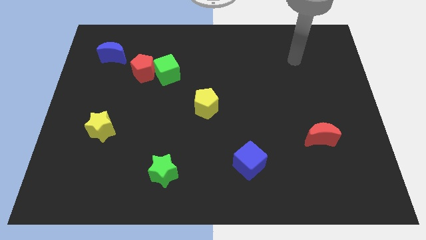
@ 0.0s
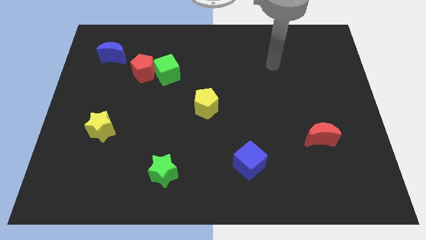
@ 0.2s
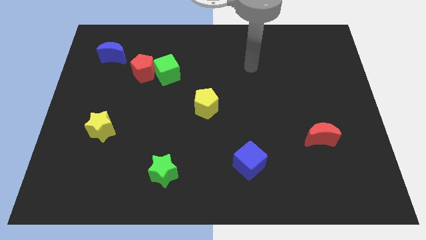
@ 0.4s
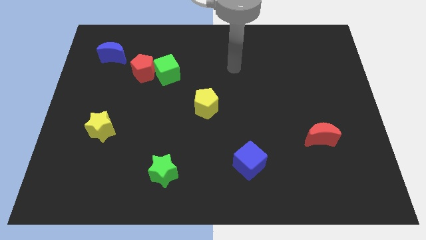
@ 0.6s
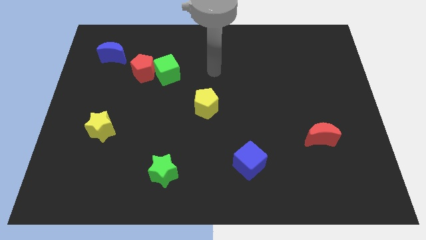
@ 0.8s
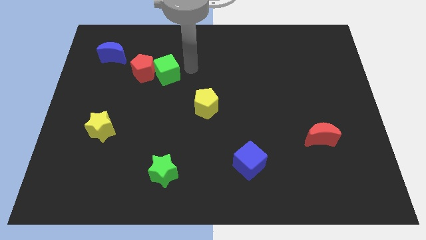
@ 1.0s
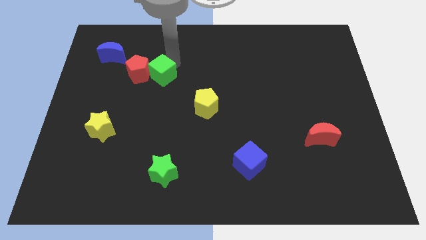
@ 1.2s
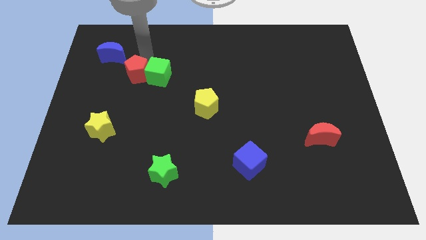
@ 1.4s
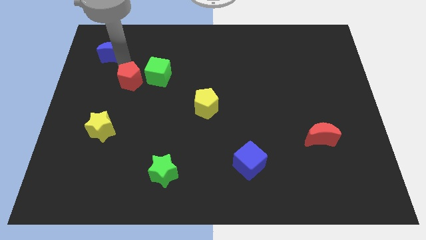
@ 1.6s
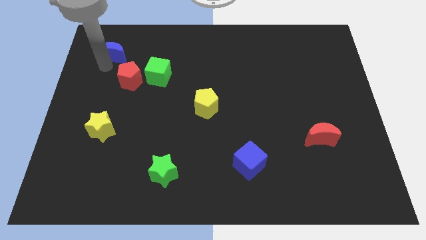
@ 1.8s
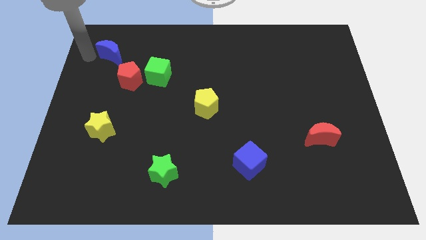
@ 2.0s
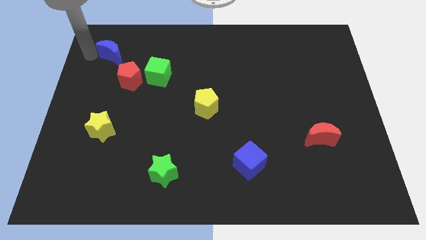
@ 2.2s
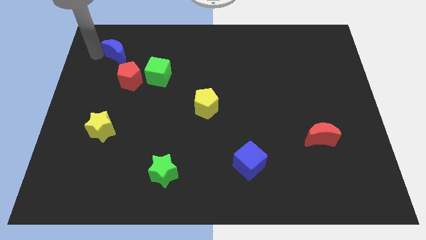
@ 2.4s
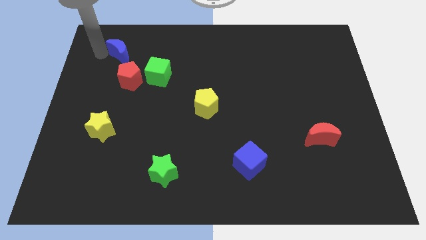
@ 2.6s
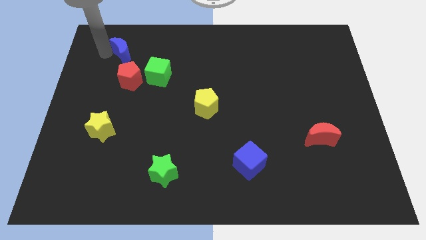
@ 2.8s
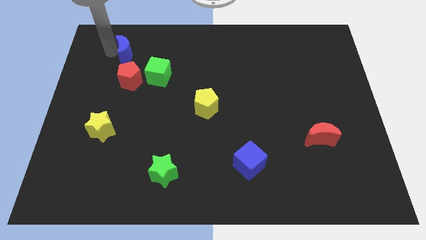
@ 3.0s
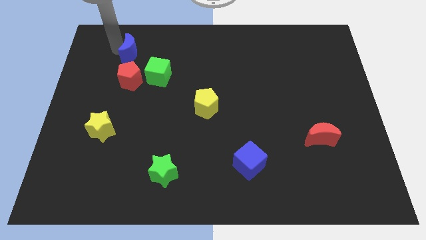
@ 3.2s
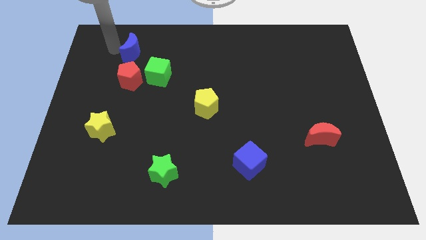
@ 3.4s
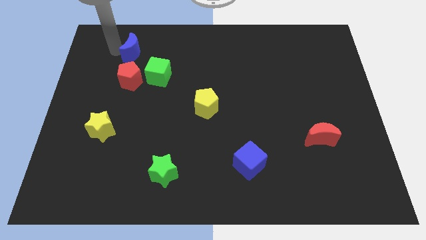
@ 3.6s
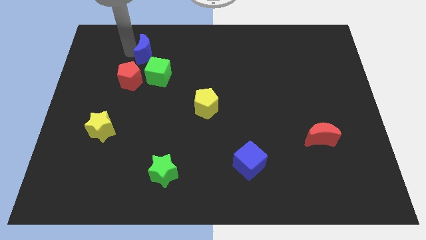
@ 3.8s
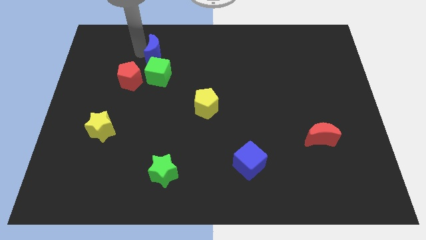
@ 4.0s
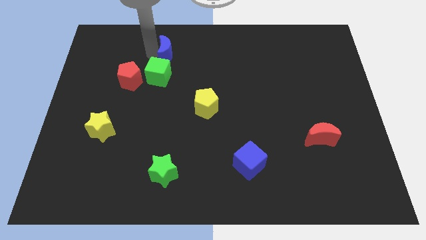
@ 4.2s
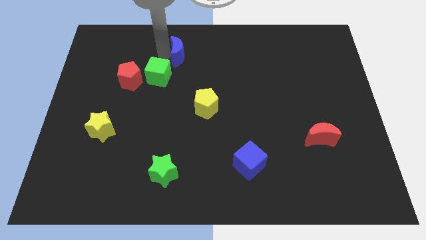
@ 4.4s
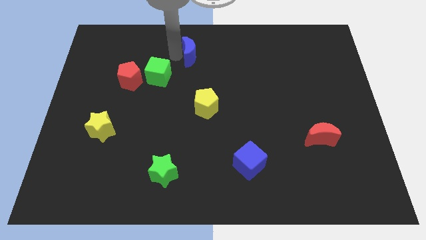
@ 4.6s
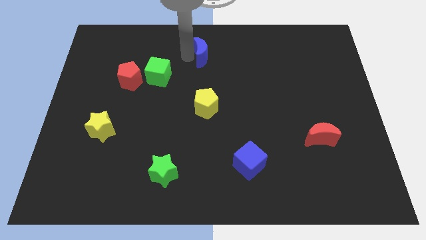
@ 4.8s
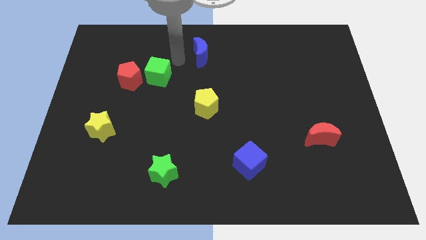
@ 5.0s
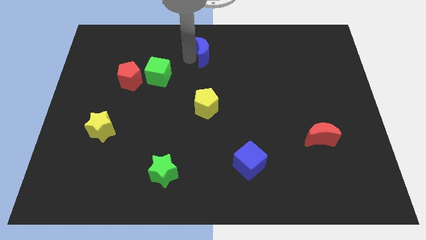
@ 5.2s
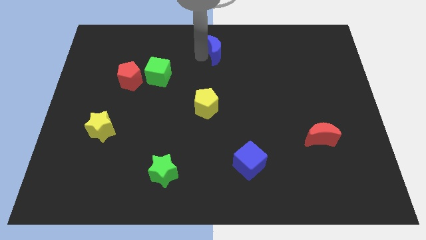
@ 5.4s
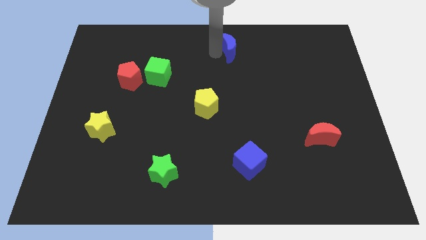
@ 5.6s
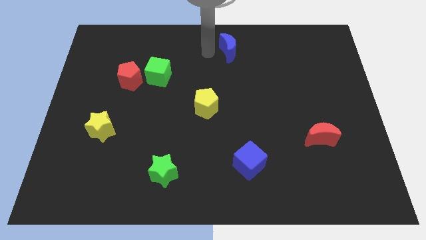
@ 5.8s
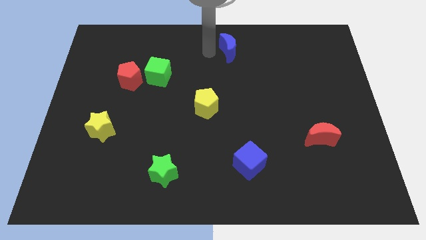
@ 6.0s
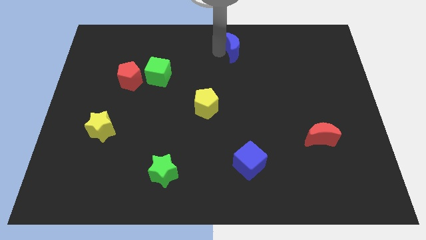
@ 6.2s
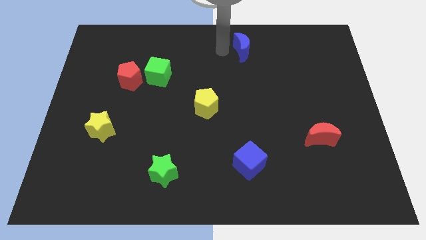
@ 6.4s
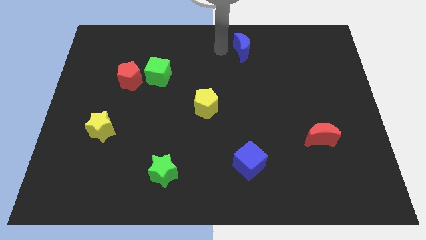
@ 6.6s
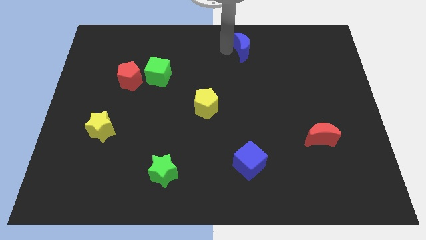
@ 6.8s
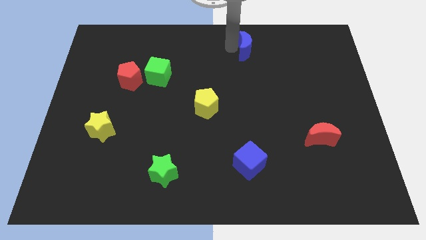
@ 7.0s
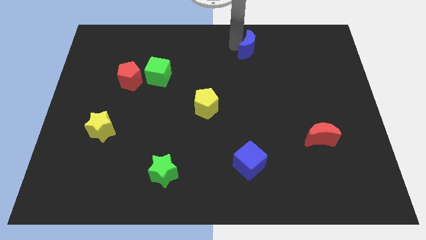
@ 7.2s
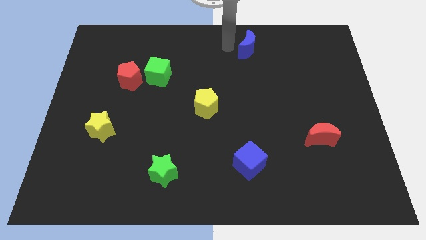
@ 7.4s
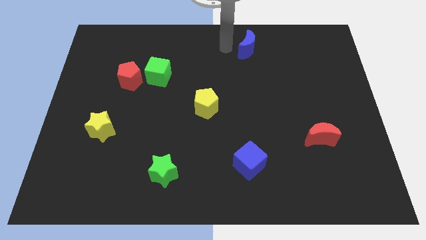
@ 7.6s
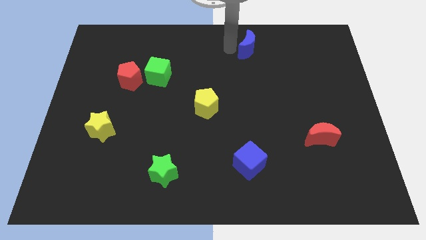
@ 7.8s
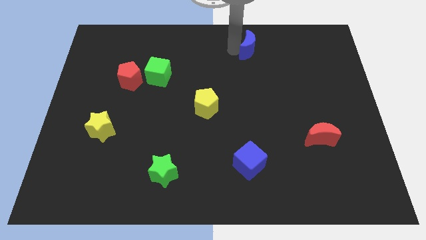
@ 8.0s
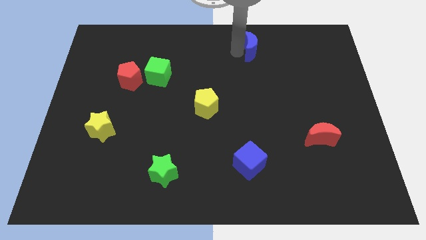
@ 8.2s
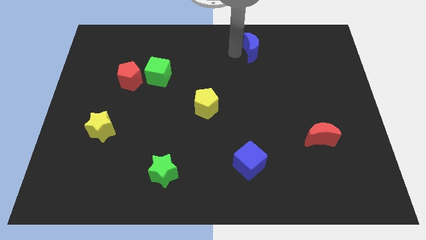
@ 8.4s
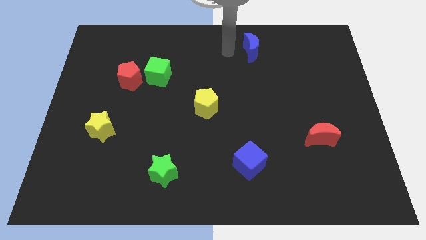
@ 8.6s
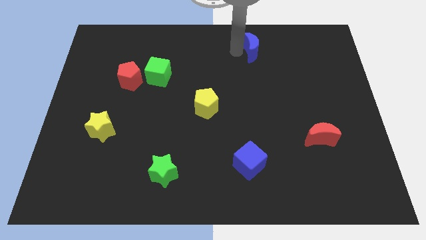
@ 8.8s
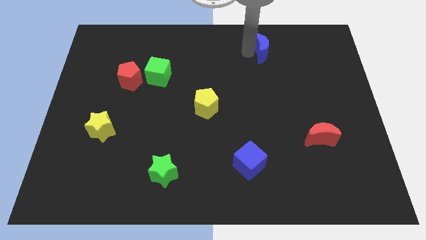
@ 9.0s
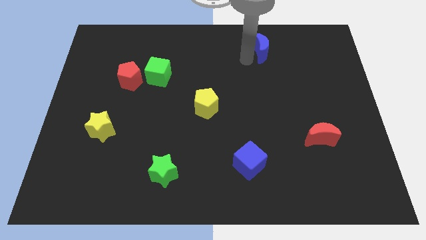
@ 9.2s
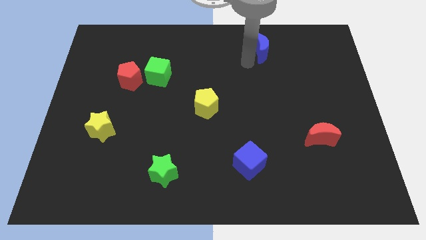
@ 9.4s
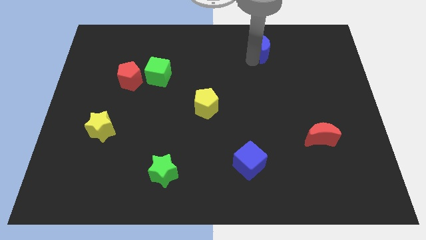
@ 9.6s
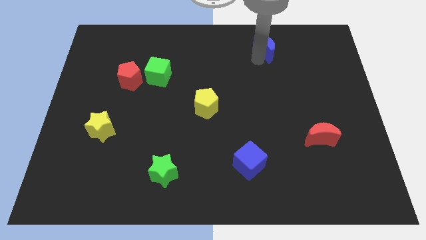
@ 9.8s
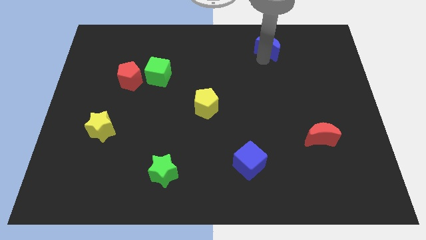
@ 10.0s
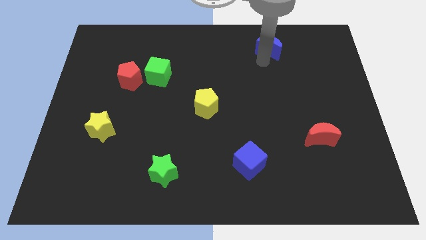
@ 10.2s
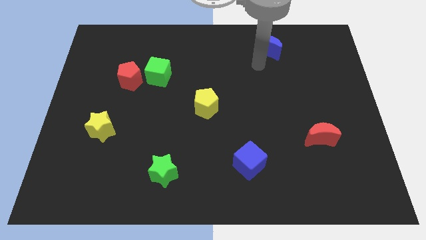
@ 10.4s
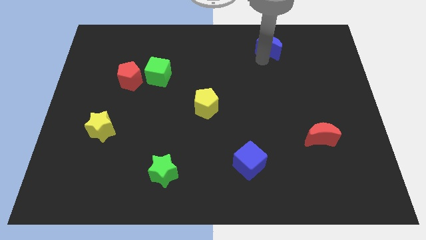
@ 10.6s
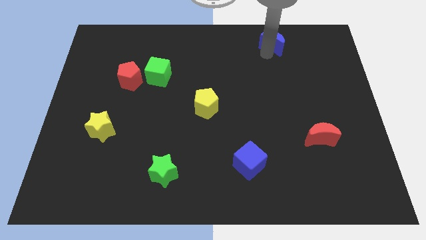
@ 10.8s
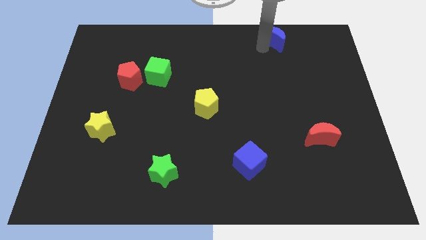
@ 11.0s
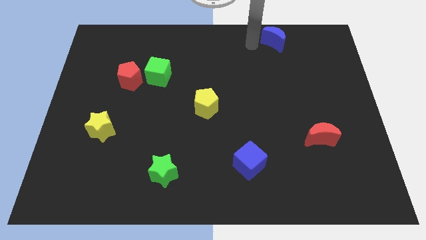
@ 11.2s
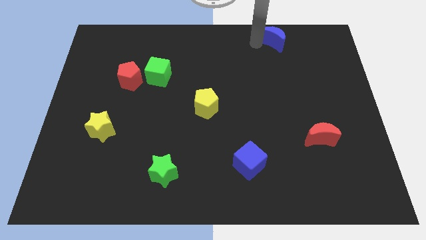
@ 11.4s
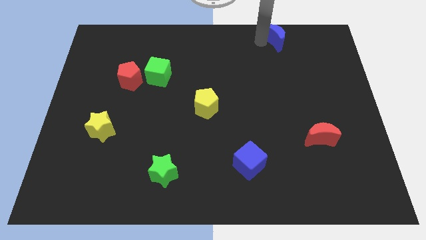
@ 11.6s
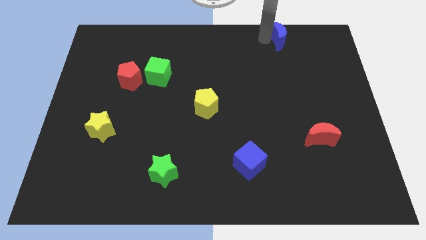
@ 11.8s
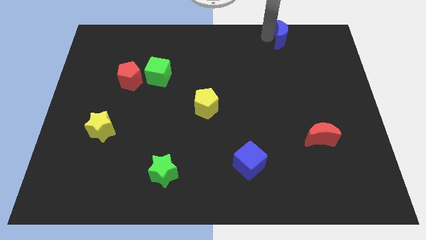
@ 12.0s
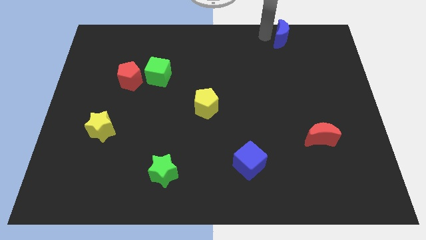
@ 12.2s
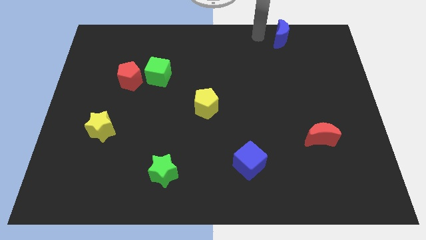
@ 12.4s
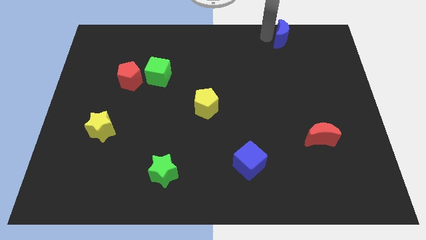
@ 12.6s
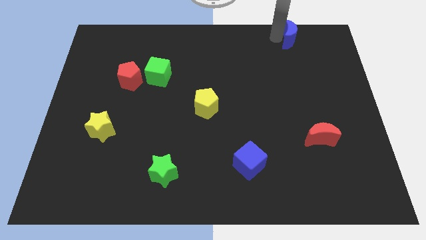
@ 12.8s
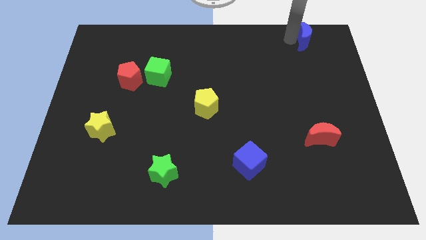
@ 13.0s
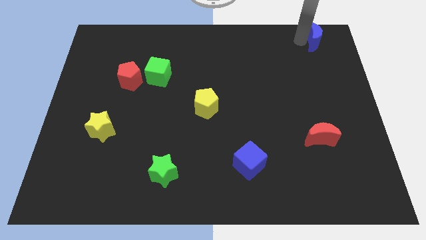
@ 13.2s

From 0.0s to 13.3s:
push the blue moon to the top right corner
